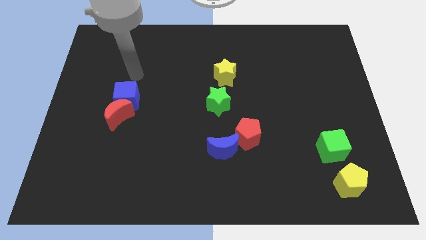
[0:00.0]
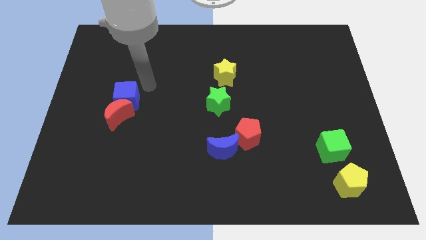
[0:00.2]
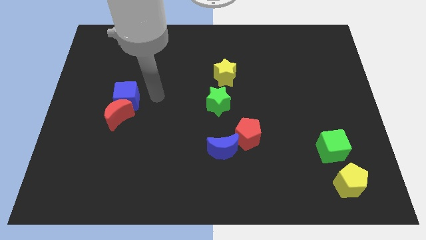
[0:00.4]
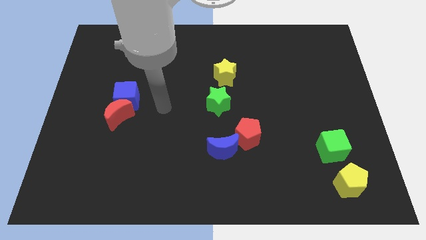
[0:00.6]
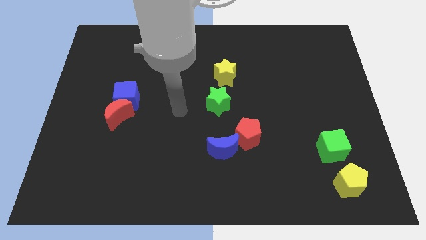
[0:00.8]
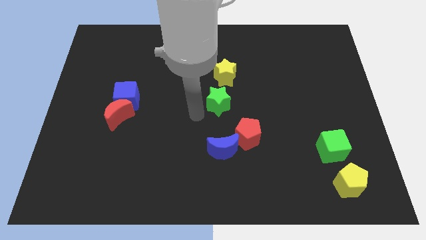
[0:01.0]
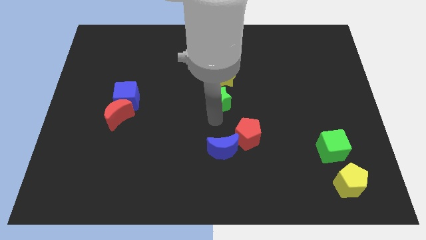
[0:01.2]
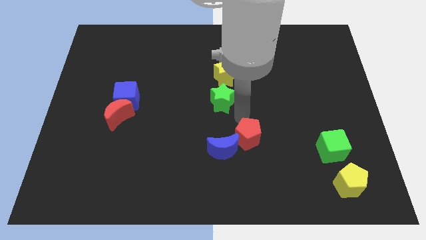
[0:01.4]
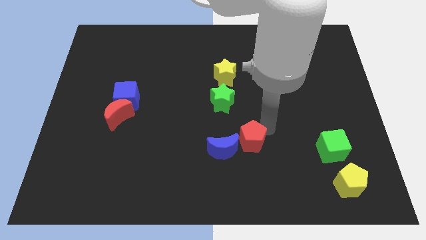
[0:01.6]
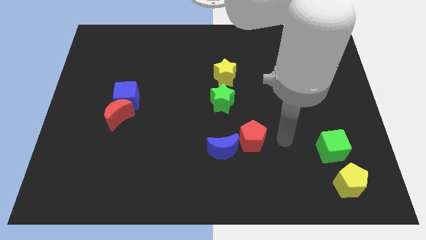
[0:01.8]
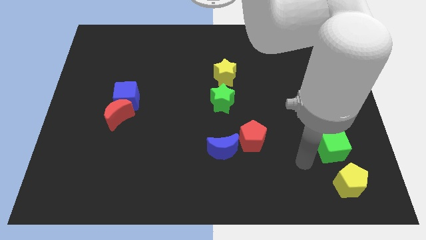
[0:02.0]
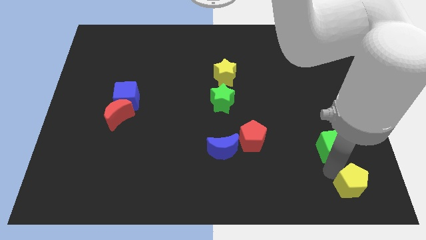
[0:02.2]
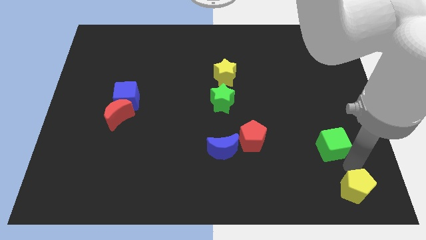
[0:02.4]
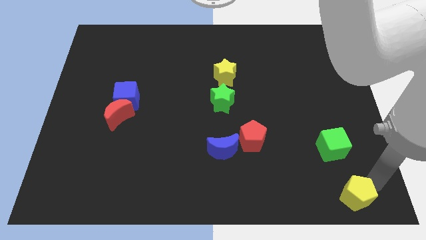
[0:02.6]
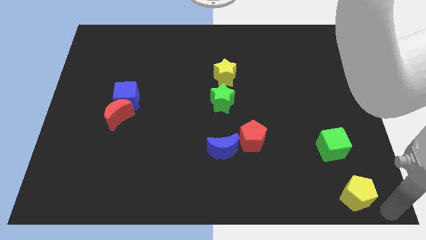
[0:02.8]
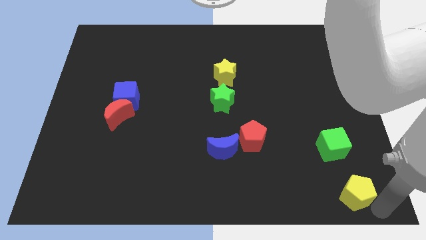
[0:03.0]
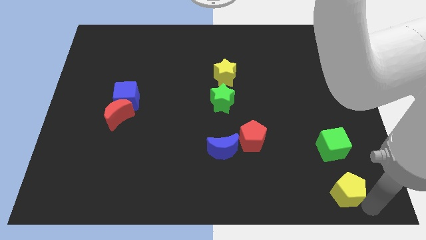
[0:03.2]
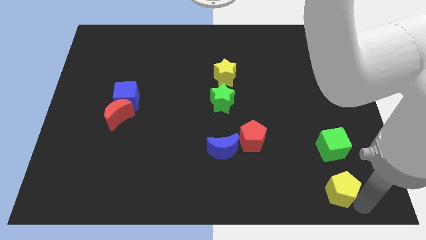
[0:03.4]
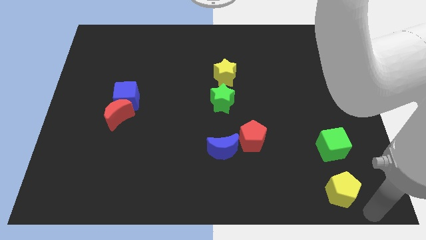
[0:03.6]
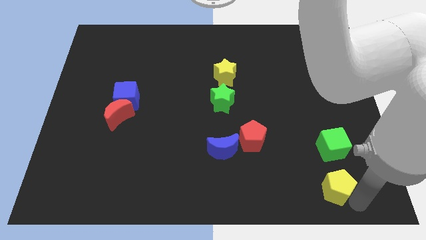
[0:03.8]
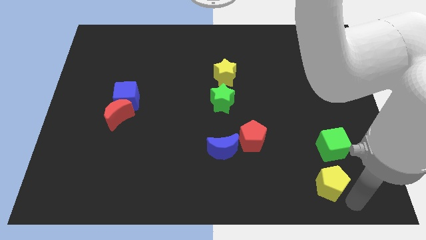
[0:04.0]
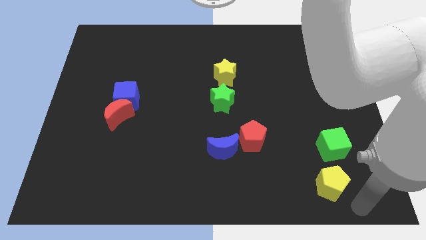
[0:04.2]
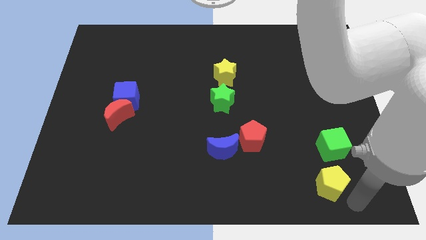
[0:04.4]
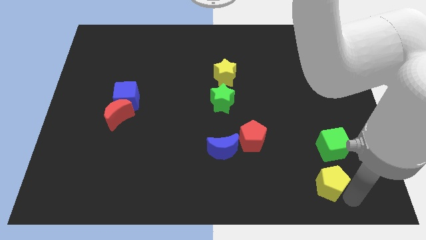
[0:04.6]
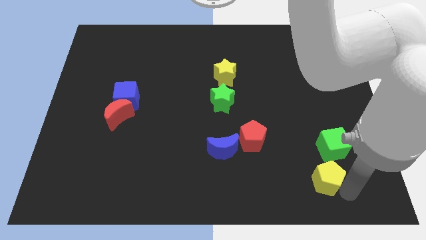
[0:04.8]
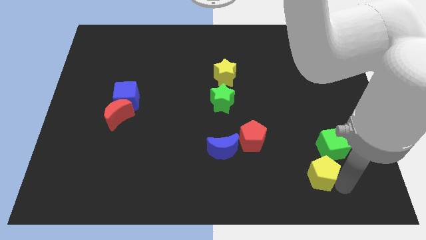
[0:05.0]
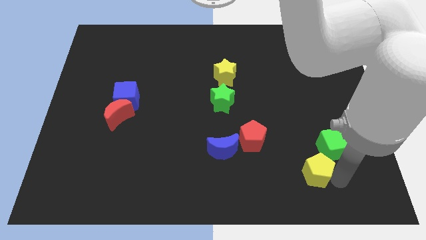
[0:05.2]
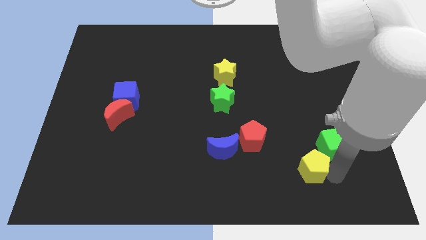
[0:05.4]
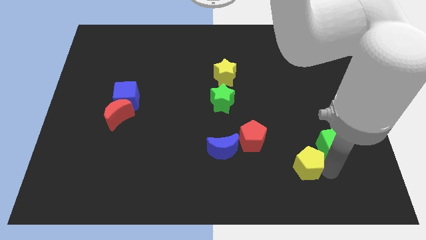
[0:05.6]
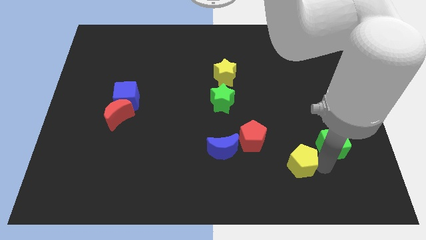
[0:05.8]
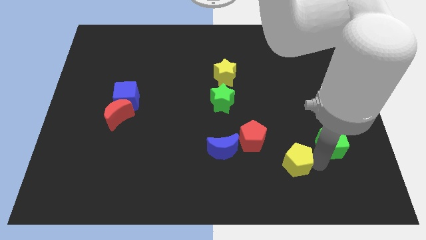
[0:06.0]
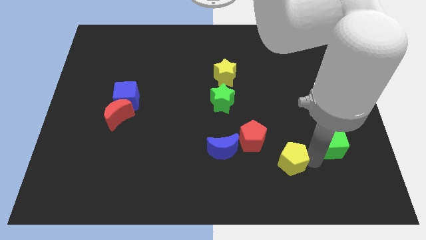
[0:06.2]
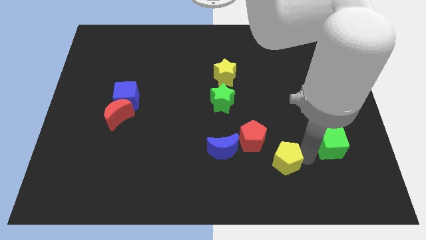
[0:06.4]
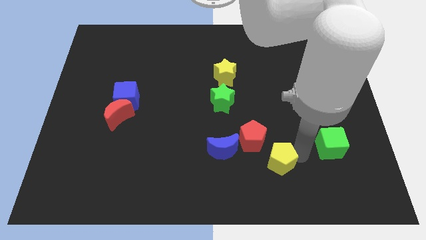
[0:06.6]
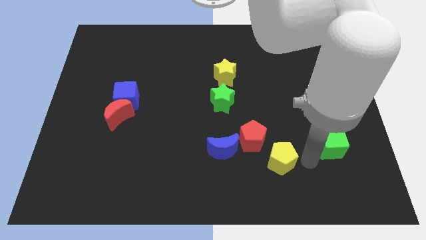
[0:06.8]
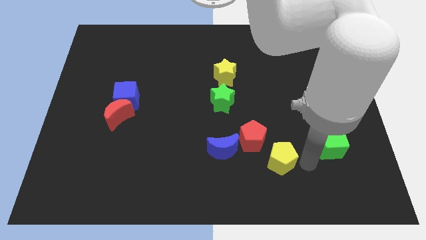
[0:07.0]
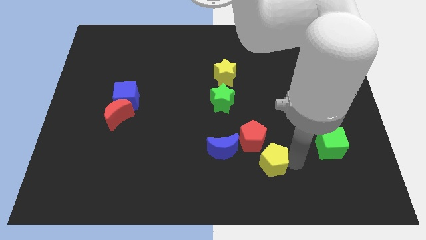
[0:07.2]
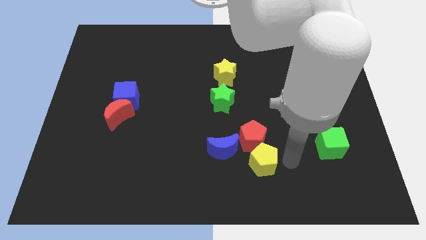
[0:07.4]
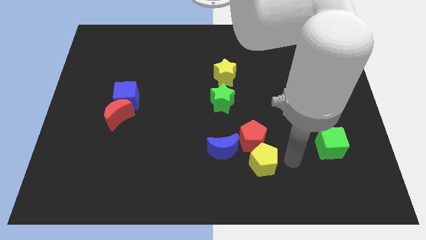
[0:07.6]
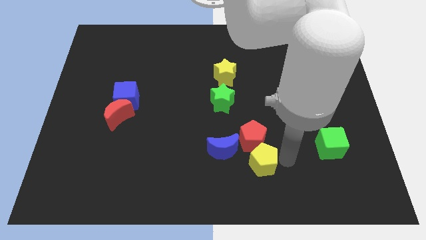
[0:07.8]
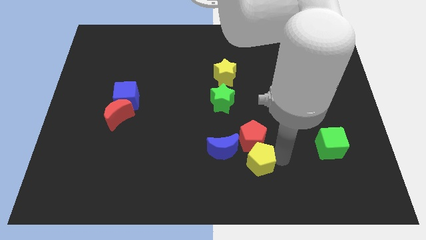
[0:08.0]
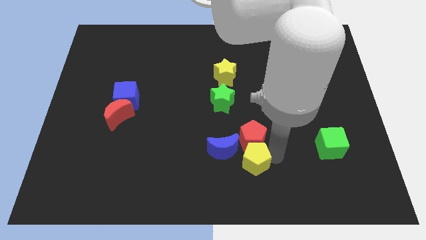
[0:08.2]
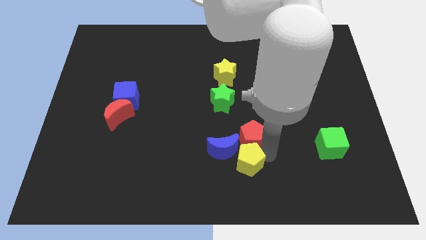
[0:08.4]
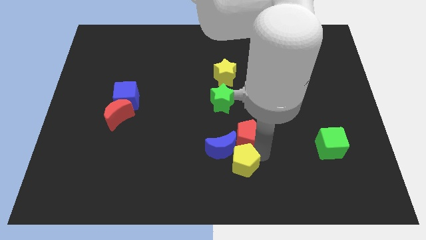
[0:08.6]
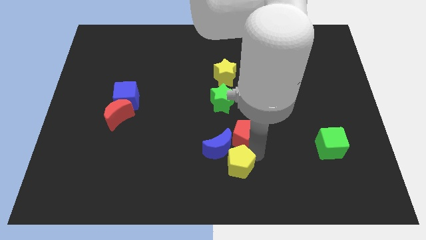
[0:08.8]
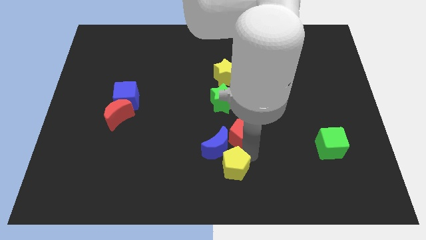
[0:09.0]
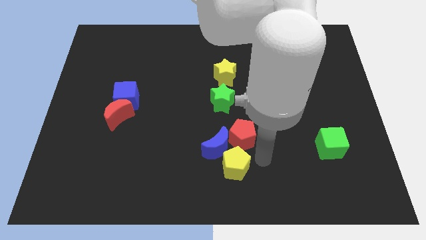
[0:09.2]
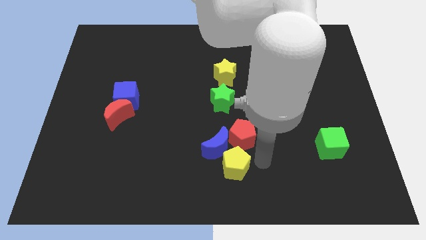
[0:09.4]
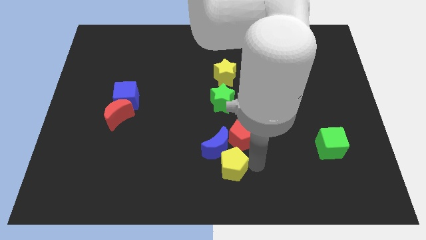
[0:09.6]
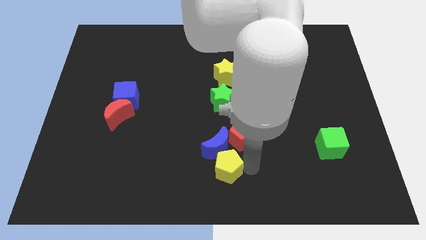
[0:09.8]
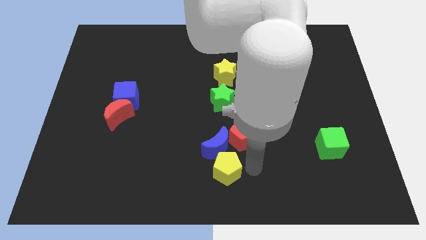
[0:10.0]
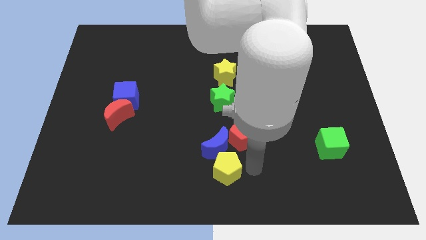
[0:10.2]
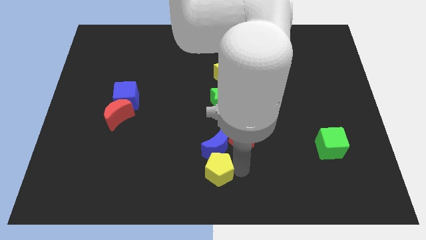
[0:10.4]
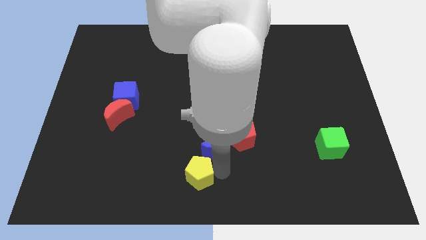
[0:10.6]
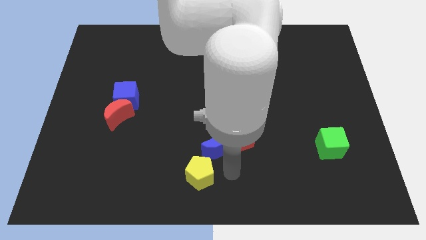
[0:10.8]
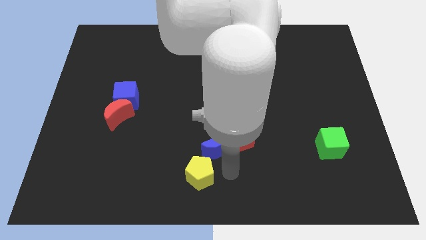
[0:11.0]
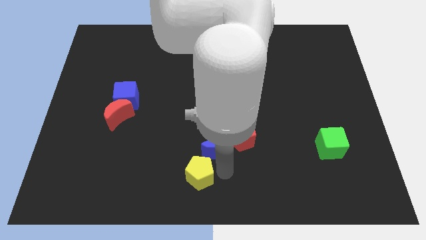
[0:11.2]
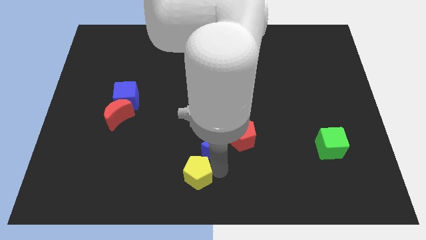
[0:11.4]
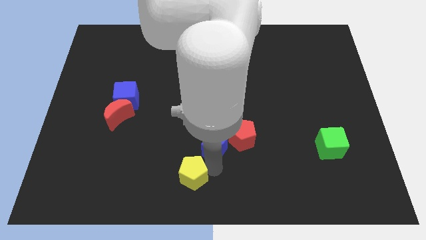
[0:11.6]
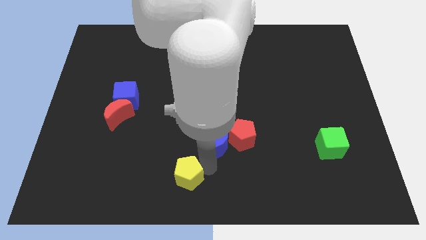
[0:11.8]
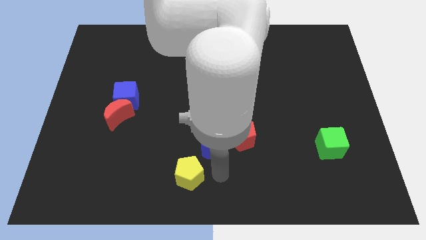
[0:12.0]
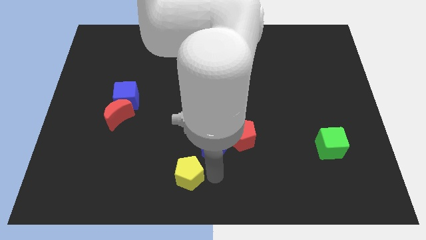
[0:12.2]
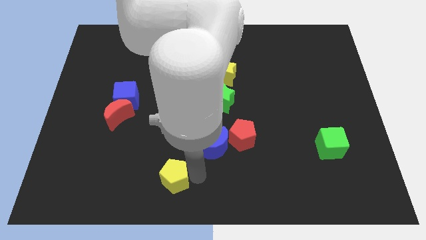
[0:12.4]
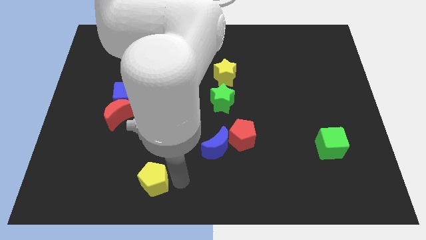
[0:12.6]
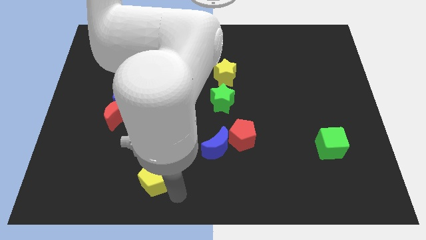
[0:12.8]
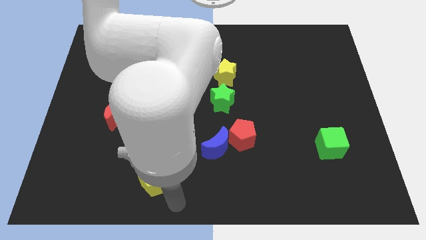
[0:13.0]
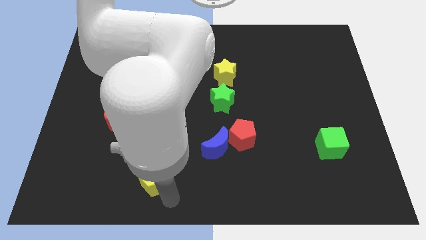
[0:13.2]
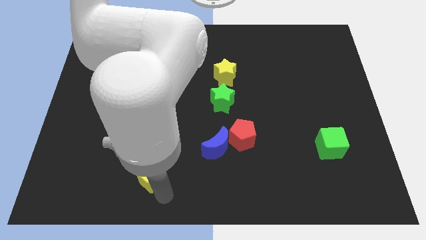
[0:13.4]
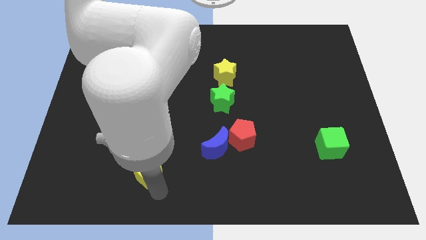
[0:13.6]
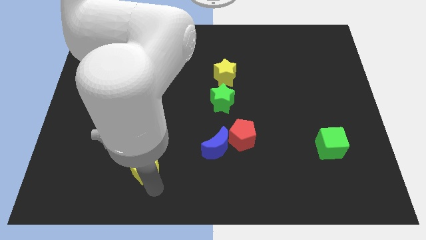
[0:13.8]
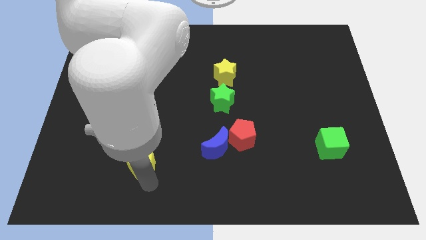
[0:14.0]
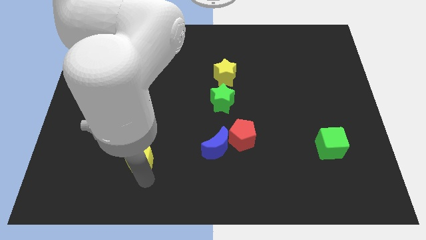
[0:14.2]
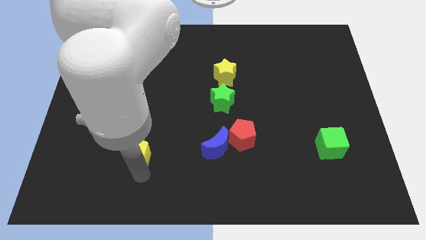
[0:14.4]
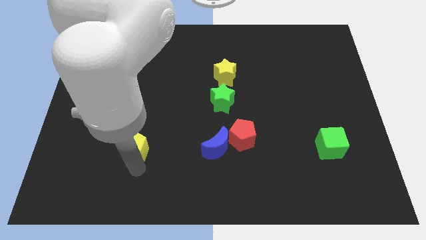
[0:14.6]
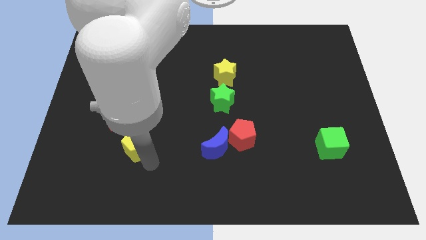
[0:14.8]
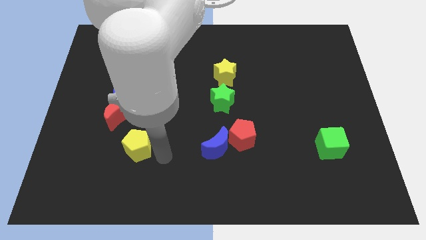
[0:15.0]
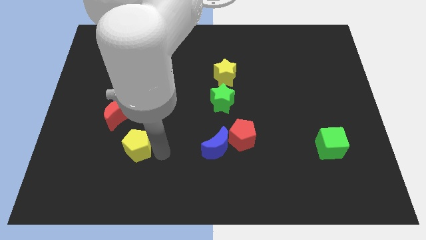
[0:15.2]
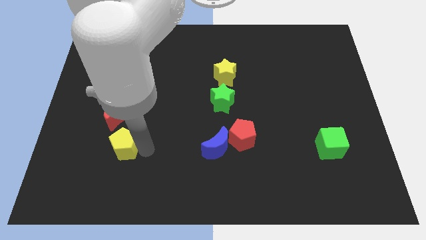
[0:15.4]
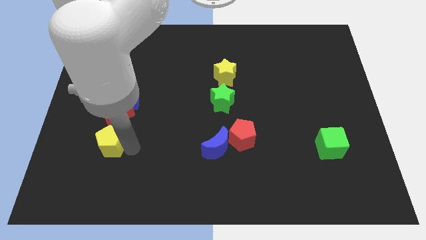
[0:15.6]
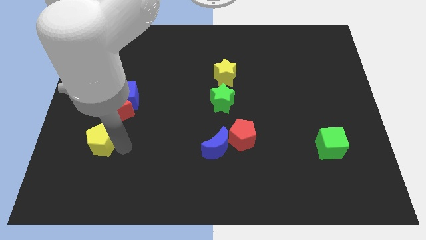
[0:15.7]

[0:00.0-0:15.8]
slide the yellow pentagon diagonally down and to the left of the red moon
